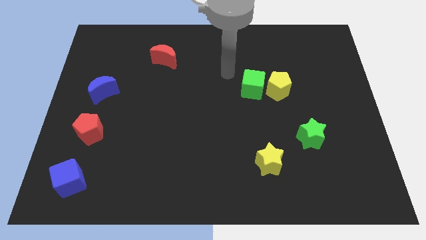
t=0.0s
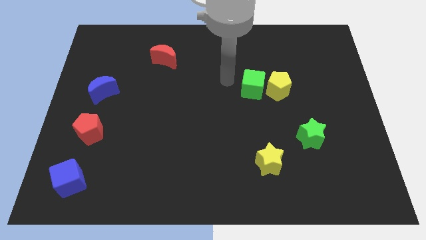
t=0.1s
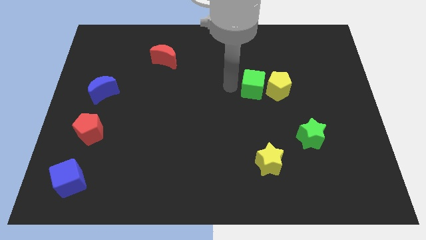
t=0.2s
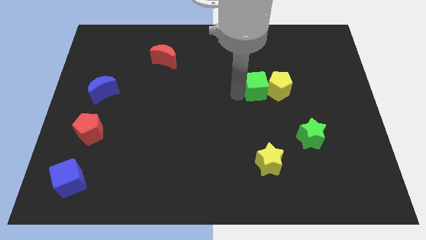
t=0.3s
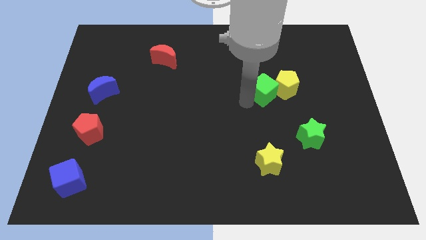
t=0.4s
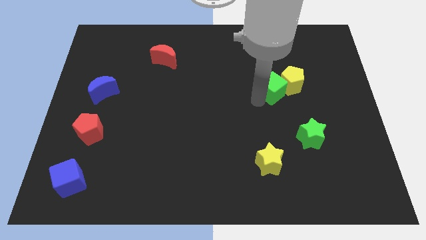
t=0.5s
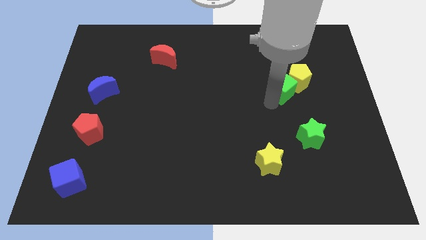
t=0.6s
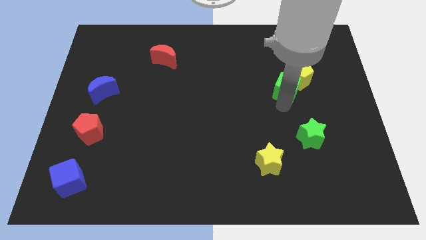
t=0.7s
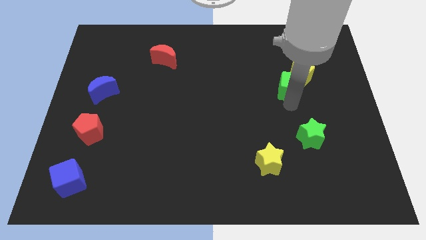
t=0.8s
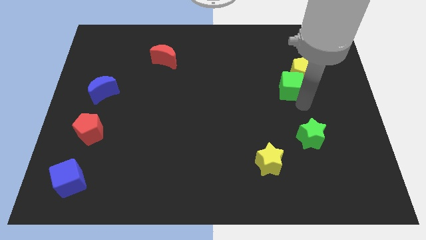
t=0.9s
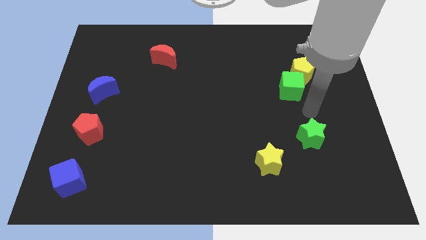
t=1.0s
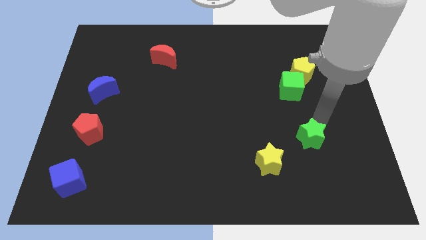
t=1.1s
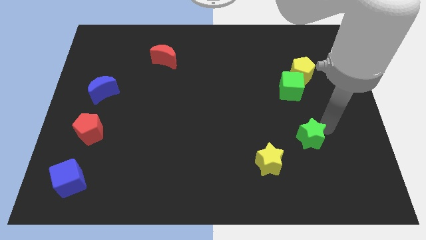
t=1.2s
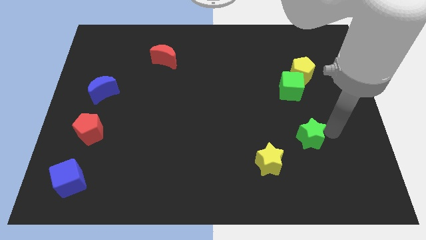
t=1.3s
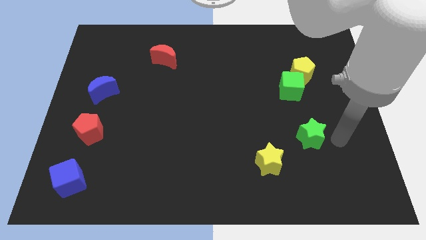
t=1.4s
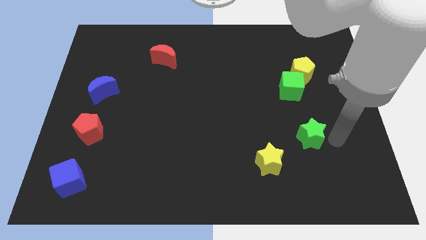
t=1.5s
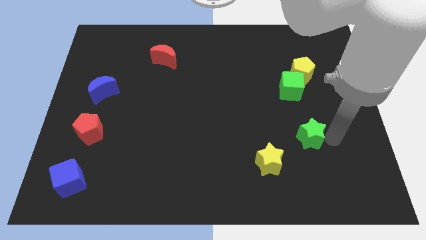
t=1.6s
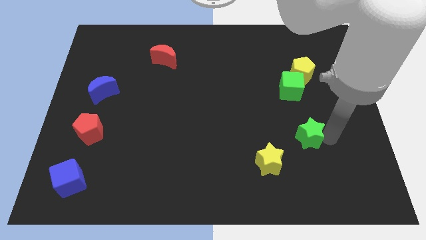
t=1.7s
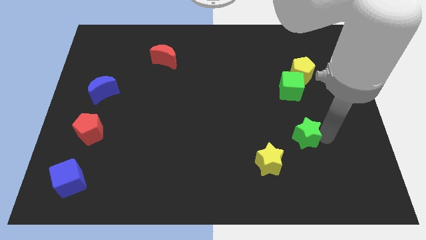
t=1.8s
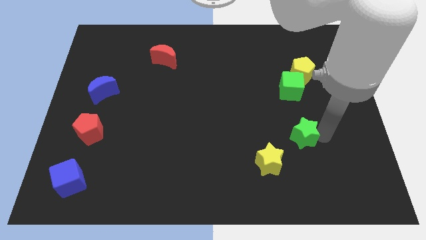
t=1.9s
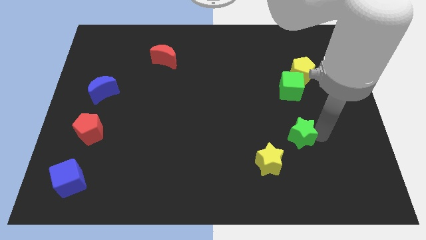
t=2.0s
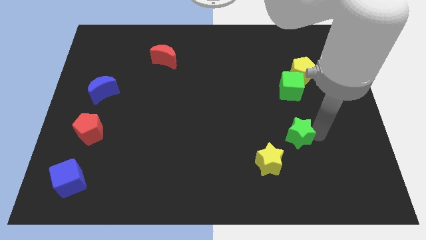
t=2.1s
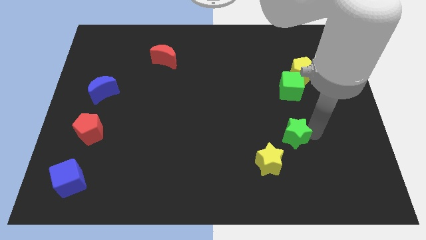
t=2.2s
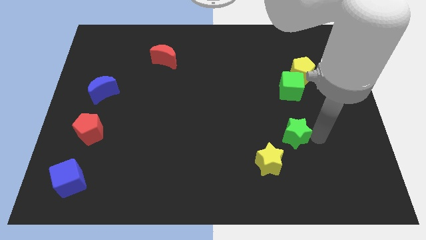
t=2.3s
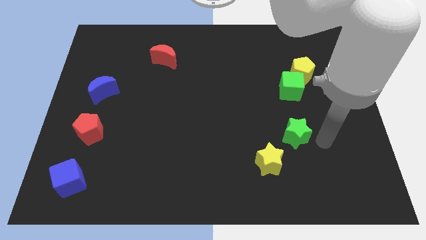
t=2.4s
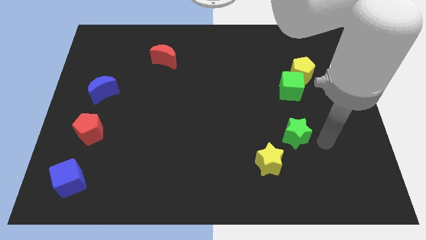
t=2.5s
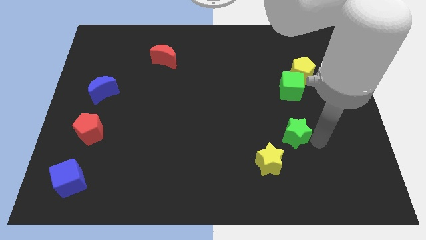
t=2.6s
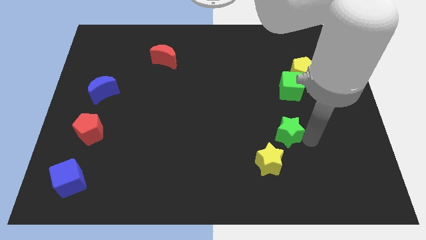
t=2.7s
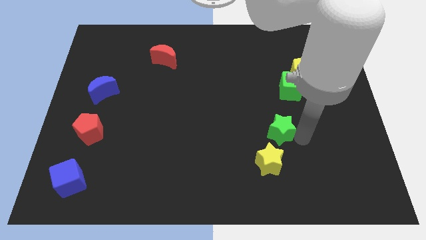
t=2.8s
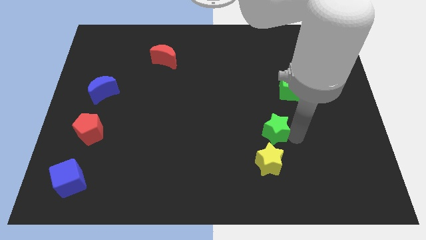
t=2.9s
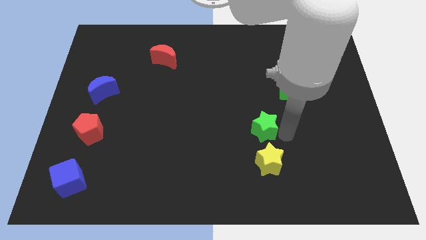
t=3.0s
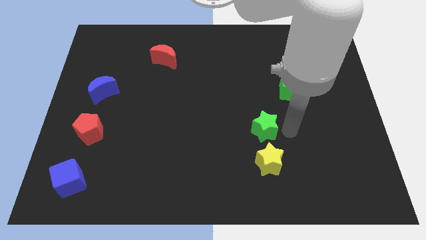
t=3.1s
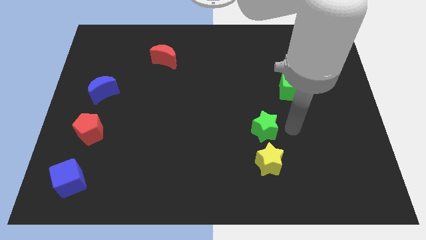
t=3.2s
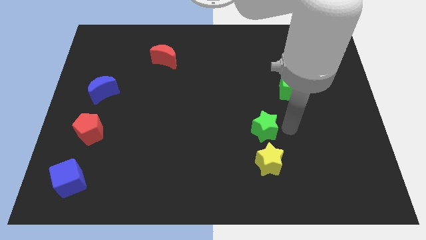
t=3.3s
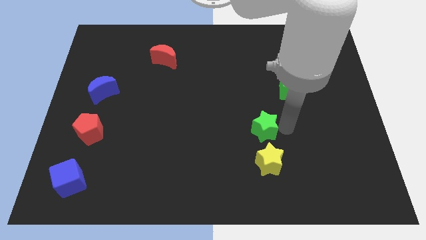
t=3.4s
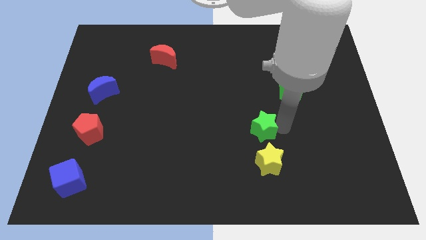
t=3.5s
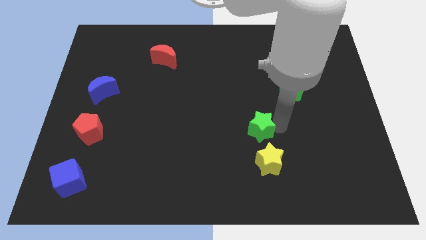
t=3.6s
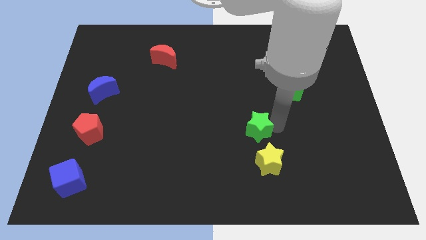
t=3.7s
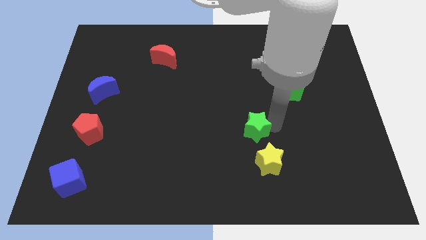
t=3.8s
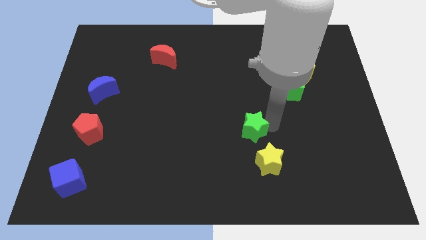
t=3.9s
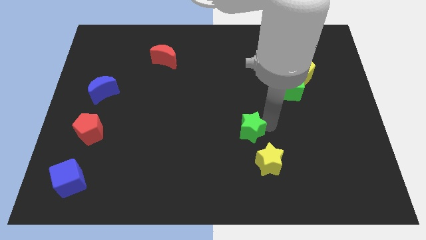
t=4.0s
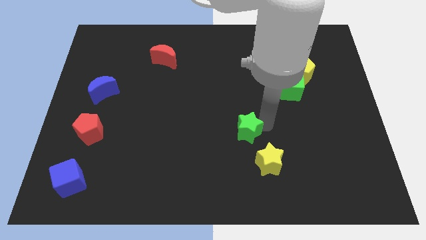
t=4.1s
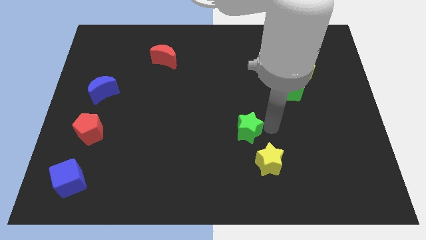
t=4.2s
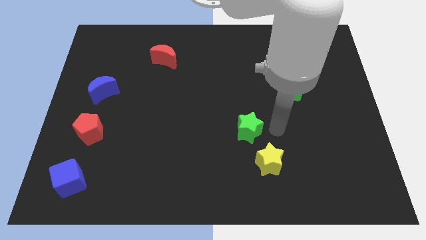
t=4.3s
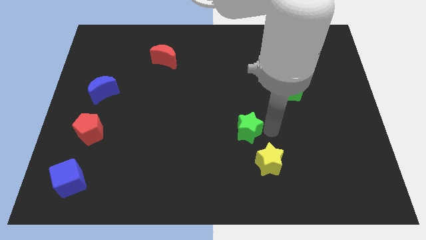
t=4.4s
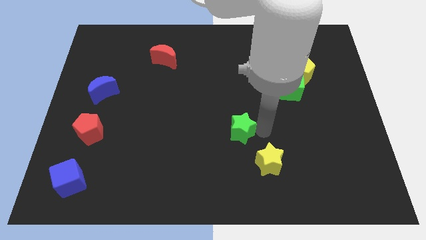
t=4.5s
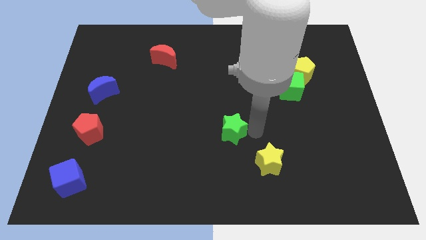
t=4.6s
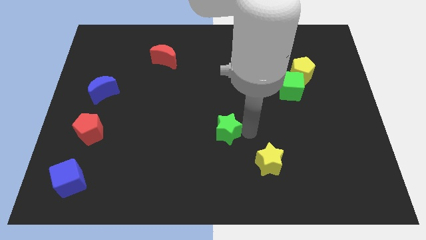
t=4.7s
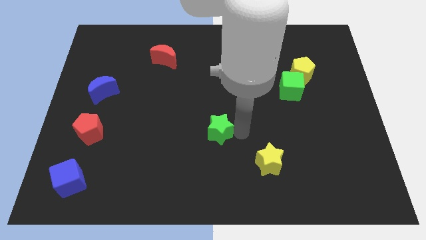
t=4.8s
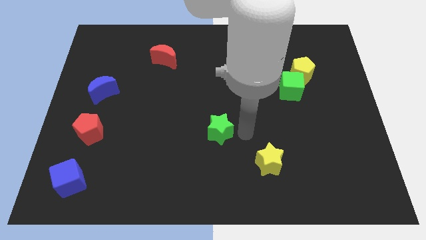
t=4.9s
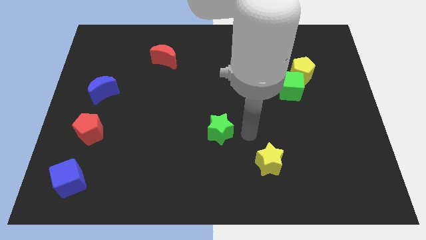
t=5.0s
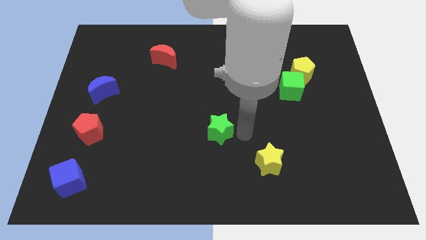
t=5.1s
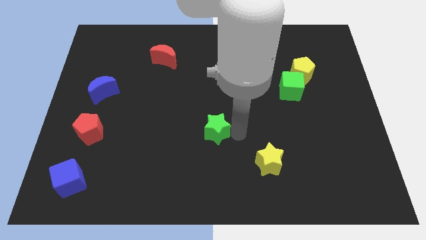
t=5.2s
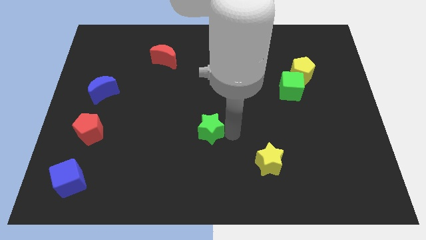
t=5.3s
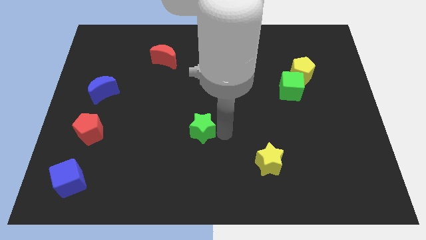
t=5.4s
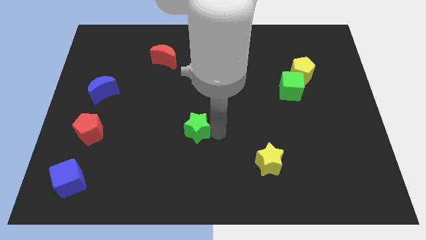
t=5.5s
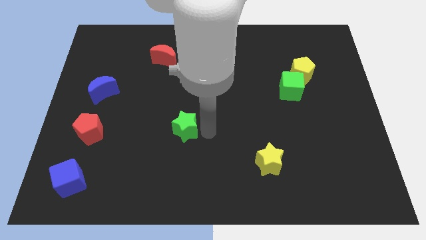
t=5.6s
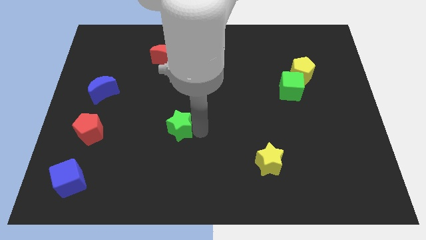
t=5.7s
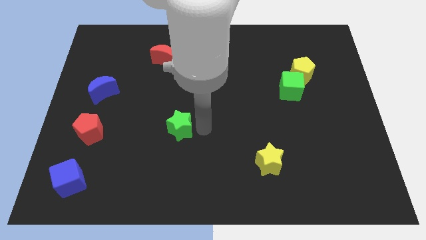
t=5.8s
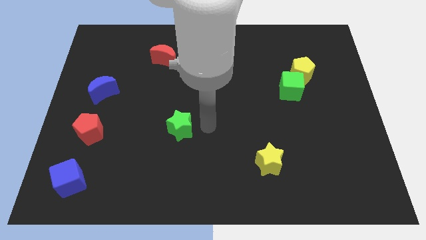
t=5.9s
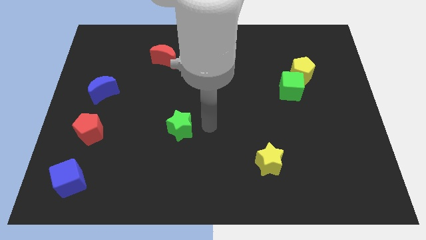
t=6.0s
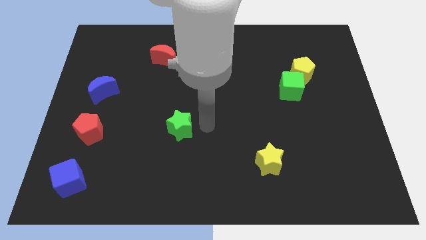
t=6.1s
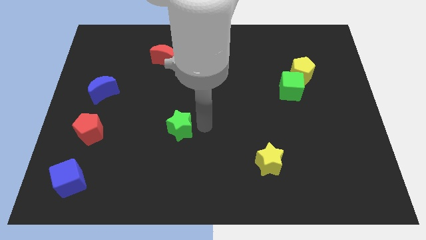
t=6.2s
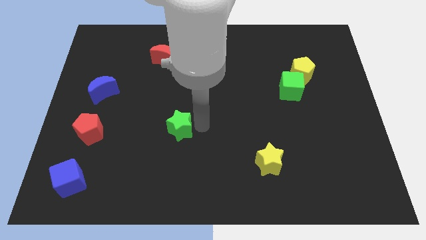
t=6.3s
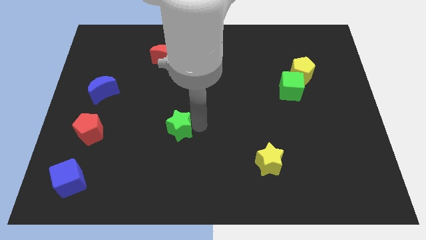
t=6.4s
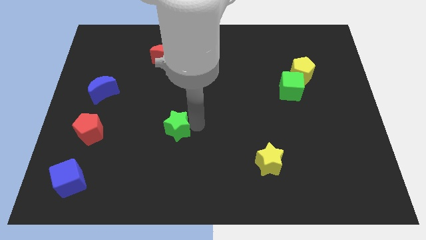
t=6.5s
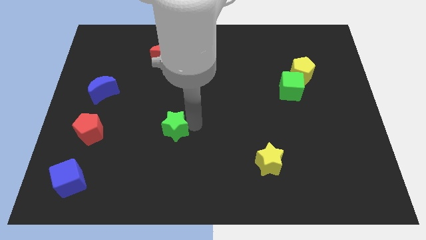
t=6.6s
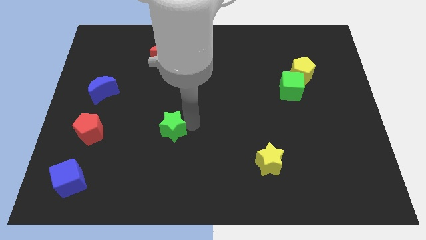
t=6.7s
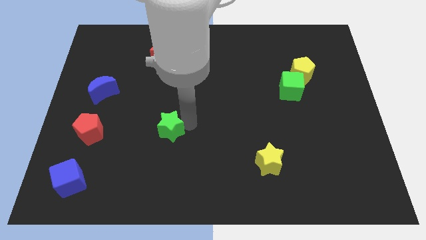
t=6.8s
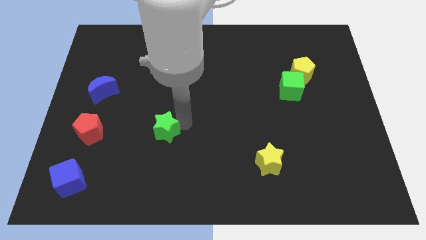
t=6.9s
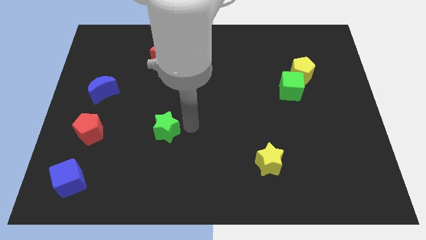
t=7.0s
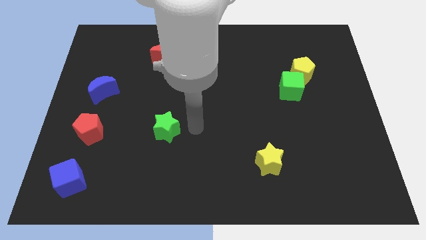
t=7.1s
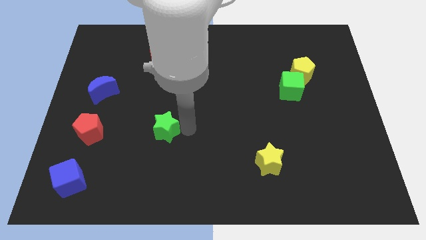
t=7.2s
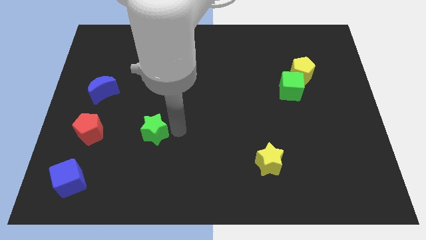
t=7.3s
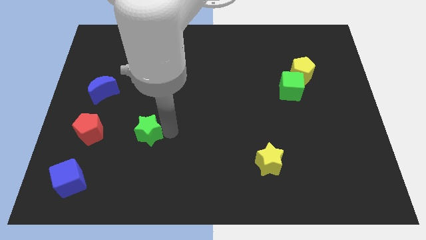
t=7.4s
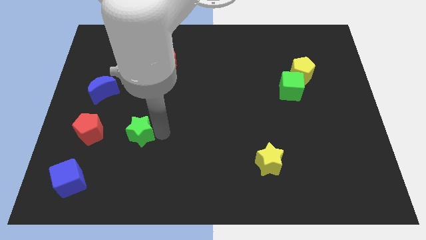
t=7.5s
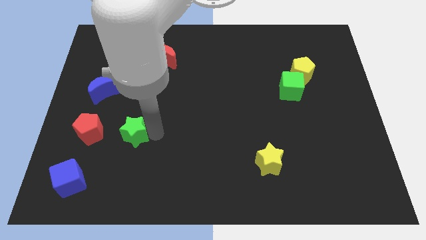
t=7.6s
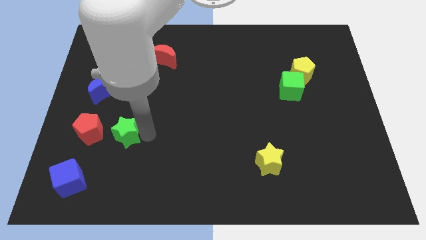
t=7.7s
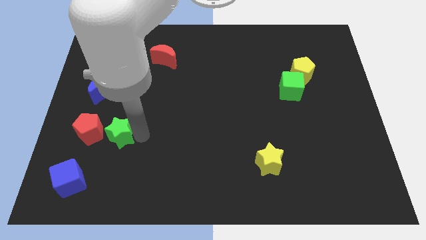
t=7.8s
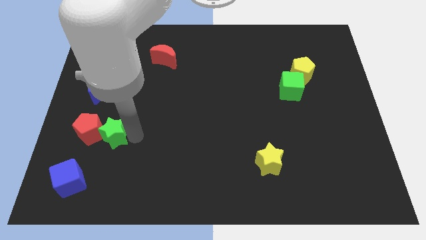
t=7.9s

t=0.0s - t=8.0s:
slide the green star towards the red pentagon
